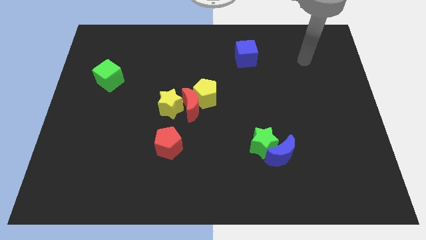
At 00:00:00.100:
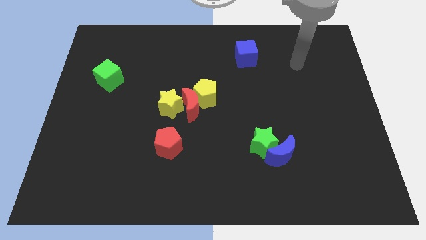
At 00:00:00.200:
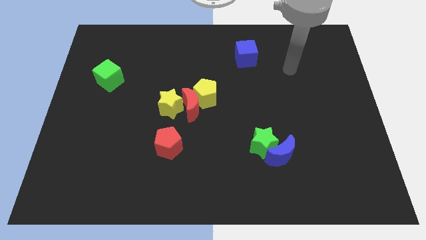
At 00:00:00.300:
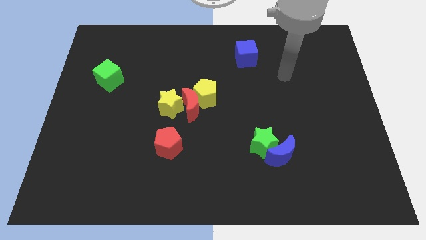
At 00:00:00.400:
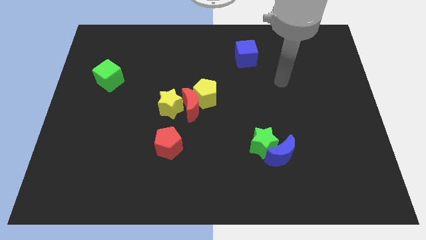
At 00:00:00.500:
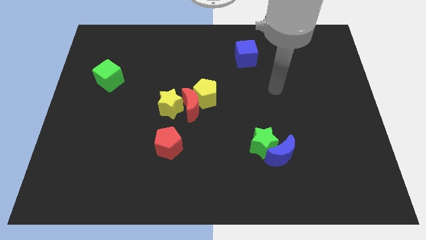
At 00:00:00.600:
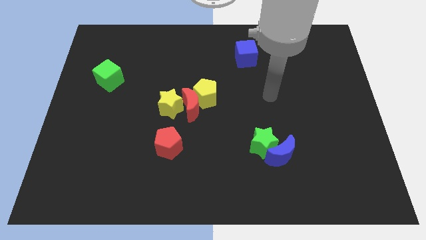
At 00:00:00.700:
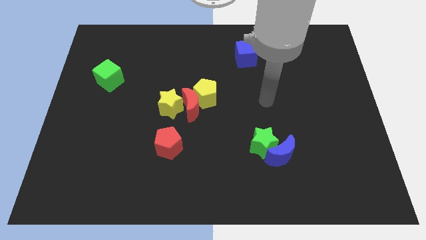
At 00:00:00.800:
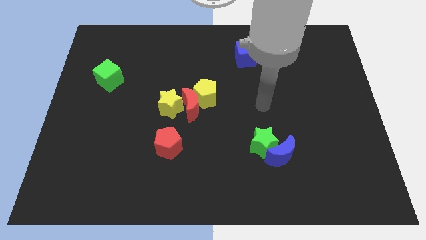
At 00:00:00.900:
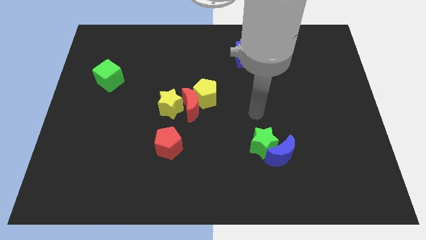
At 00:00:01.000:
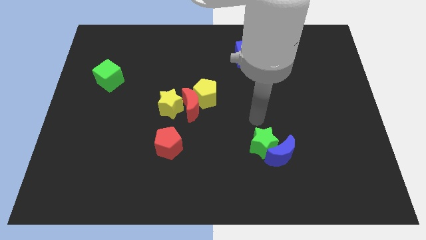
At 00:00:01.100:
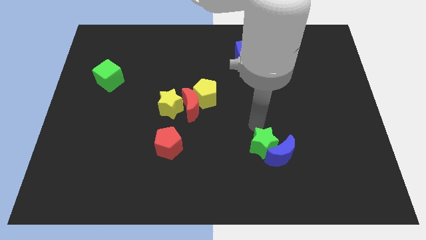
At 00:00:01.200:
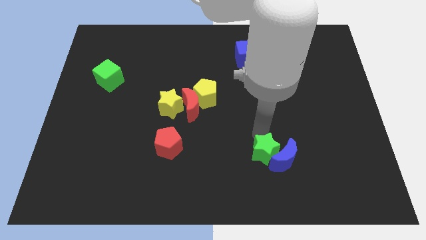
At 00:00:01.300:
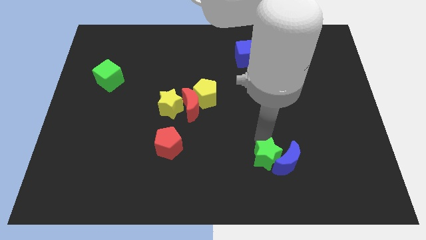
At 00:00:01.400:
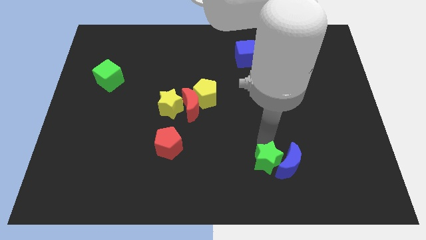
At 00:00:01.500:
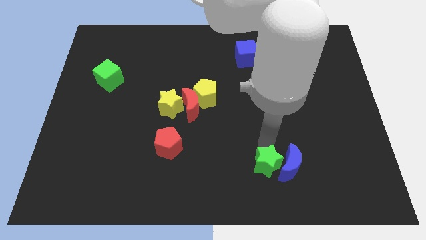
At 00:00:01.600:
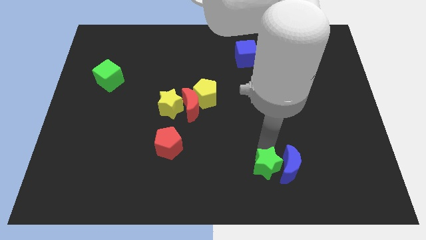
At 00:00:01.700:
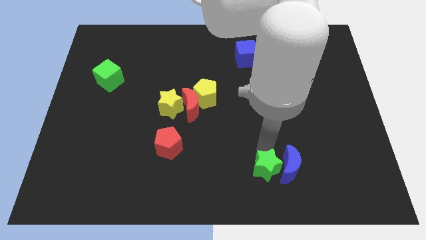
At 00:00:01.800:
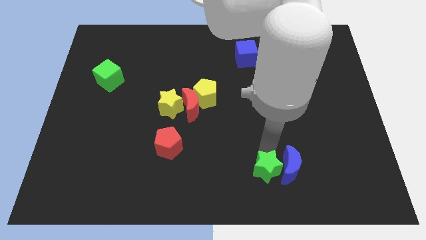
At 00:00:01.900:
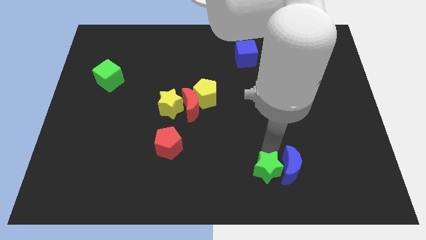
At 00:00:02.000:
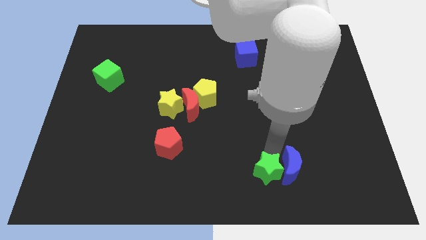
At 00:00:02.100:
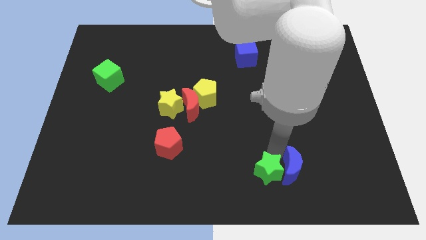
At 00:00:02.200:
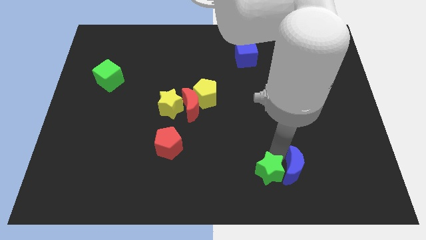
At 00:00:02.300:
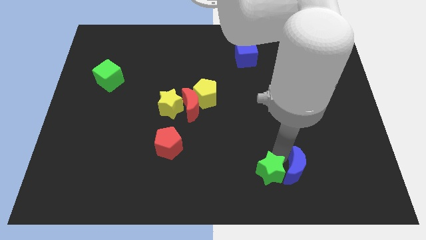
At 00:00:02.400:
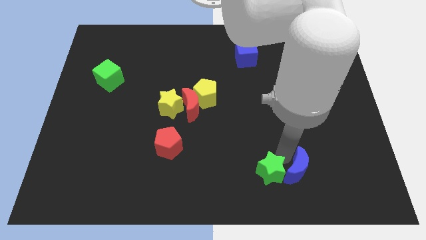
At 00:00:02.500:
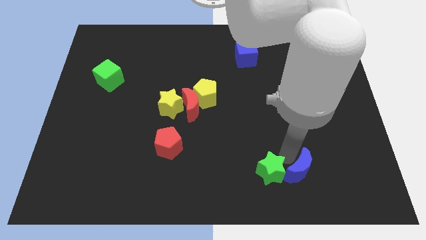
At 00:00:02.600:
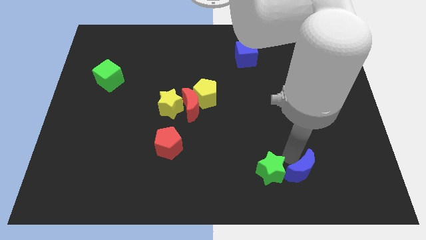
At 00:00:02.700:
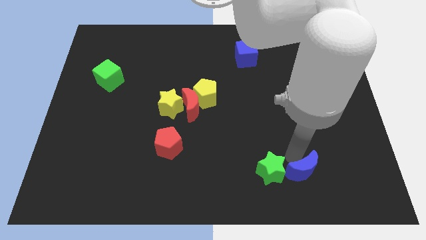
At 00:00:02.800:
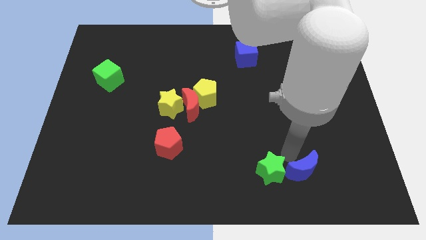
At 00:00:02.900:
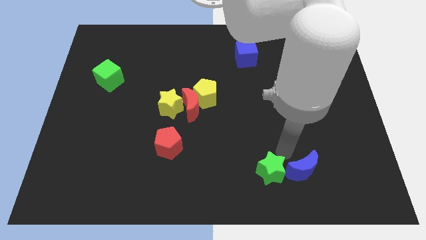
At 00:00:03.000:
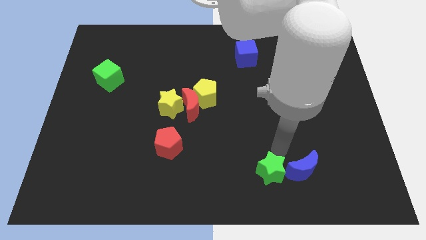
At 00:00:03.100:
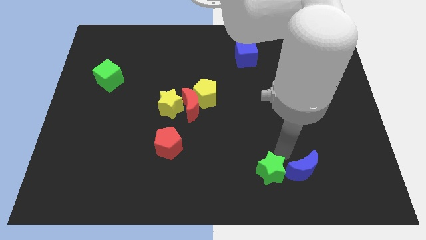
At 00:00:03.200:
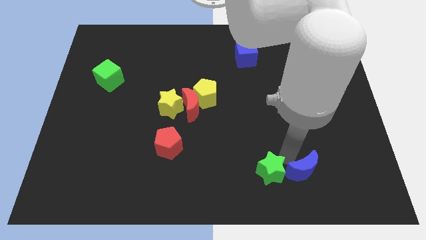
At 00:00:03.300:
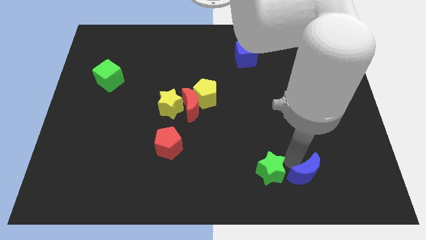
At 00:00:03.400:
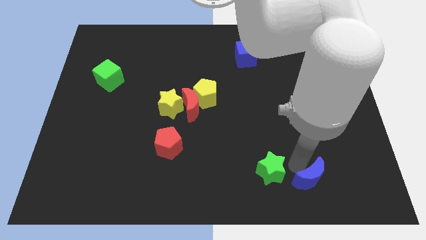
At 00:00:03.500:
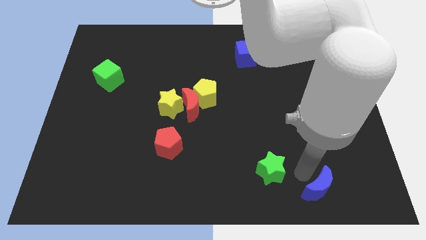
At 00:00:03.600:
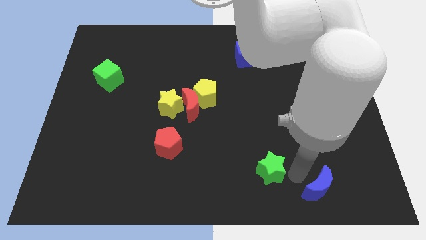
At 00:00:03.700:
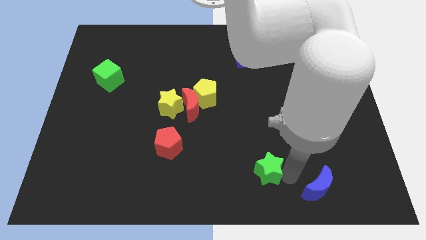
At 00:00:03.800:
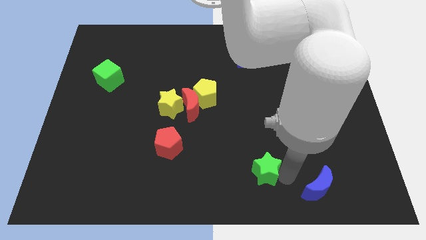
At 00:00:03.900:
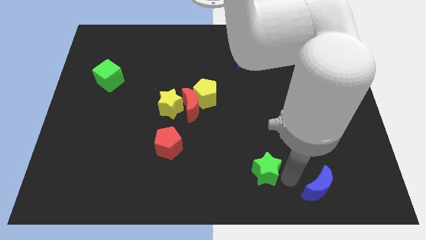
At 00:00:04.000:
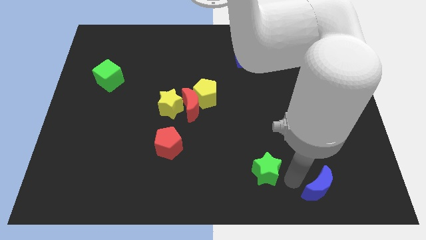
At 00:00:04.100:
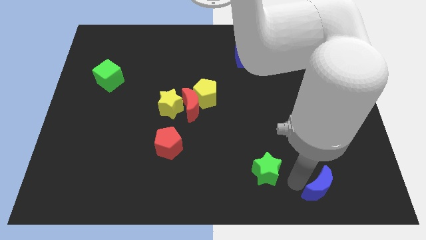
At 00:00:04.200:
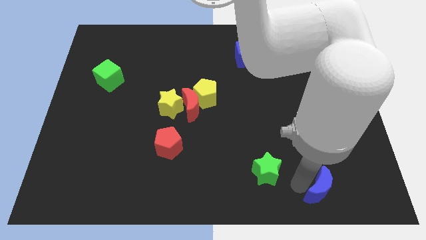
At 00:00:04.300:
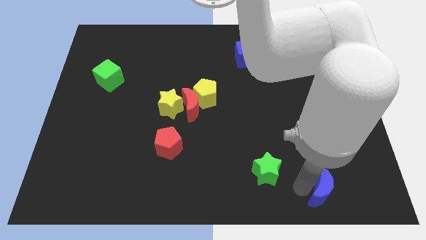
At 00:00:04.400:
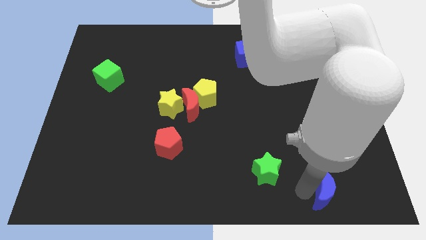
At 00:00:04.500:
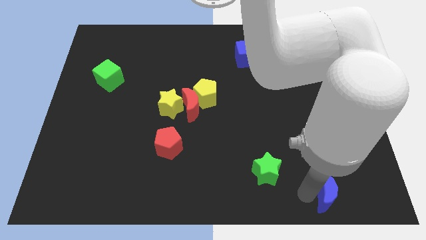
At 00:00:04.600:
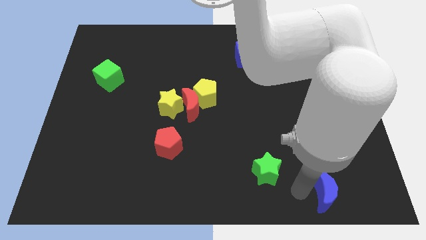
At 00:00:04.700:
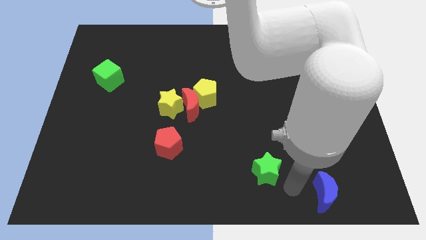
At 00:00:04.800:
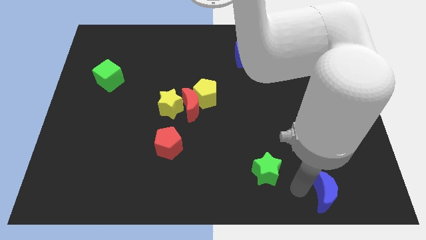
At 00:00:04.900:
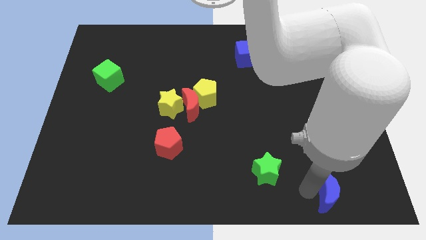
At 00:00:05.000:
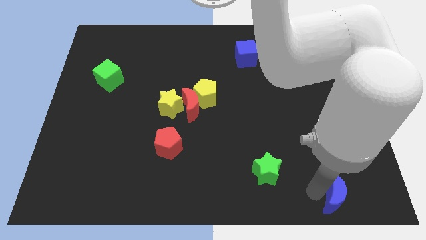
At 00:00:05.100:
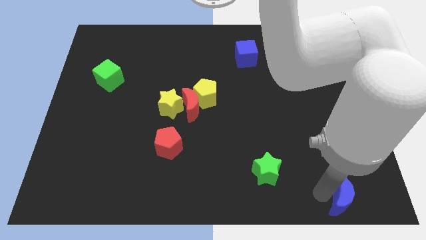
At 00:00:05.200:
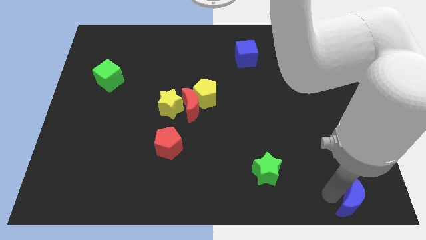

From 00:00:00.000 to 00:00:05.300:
move the blue moon to the bottom right corner

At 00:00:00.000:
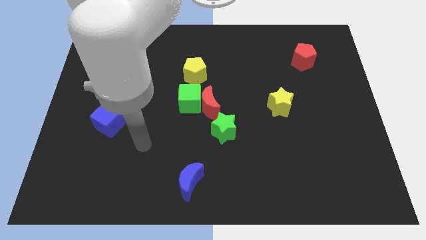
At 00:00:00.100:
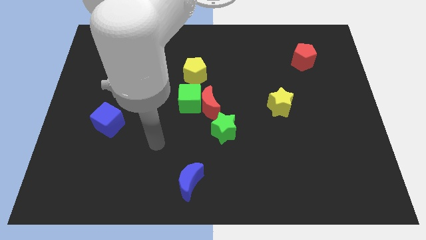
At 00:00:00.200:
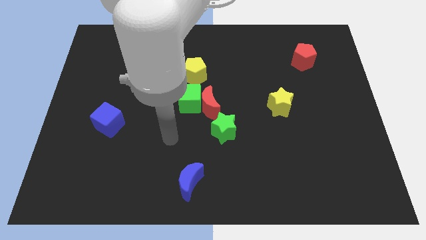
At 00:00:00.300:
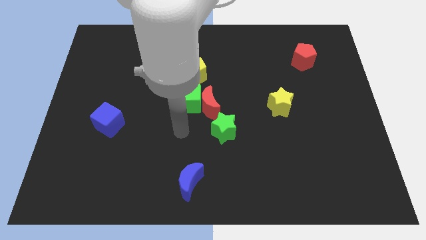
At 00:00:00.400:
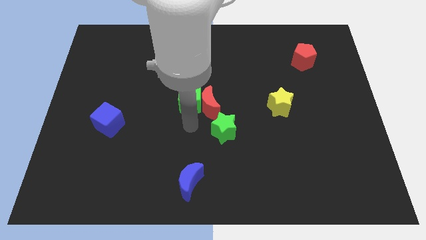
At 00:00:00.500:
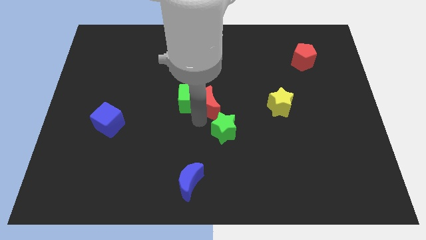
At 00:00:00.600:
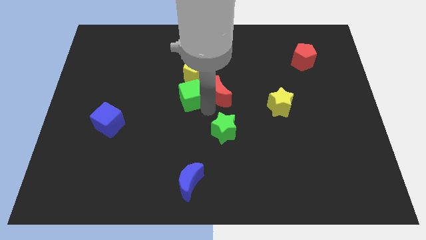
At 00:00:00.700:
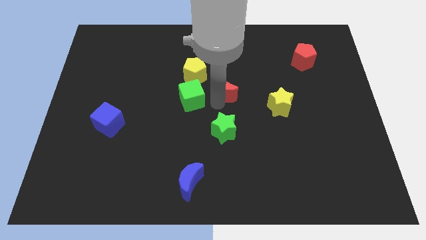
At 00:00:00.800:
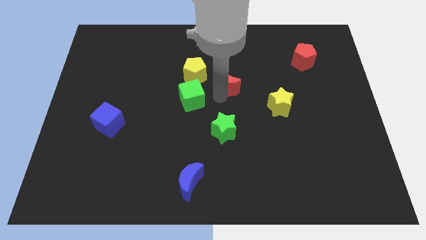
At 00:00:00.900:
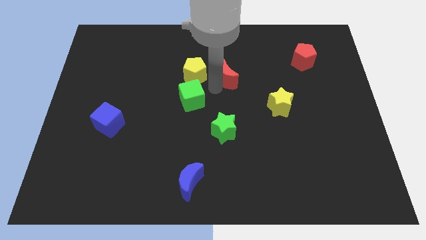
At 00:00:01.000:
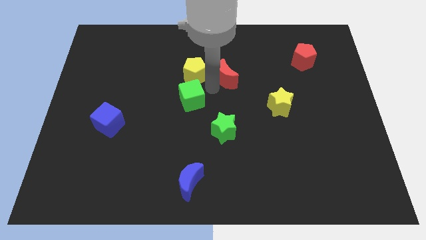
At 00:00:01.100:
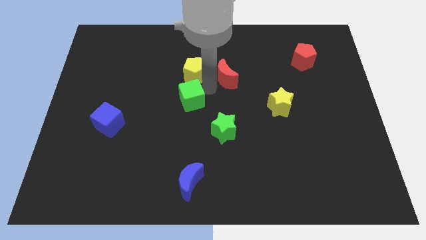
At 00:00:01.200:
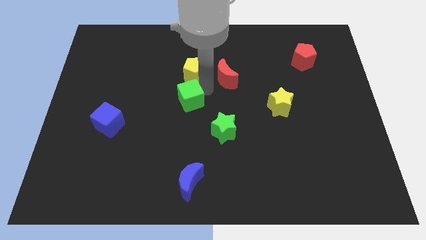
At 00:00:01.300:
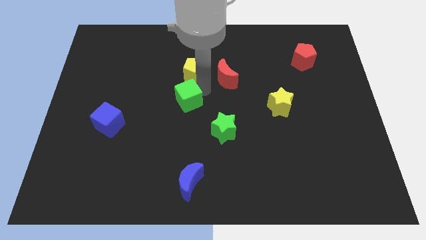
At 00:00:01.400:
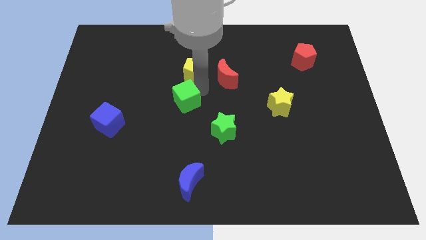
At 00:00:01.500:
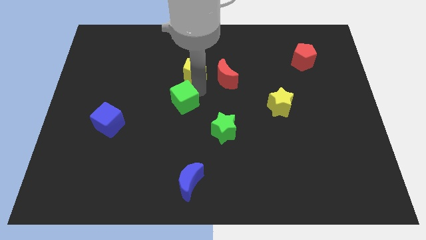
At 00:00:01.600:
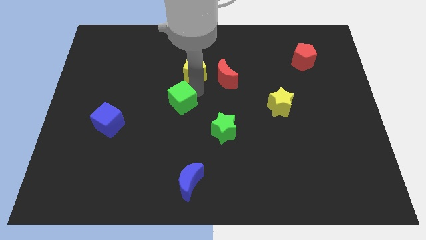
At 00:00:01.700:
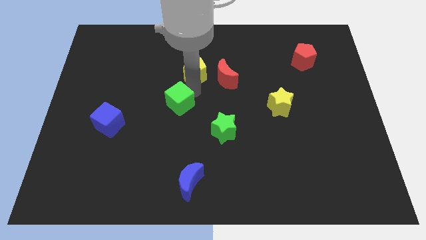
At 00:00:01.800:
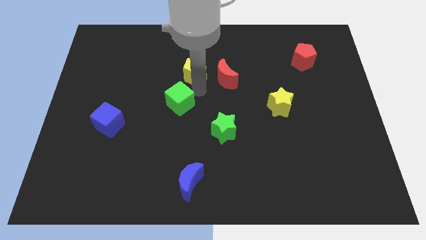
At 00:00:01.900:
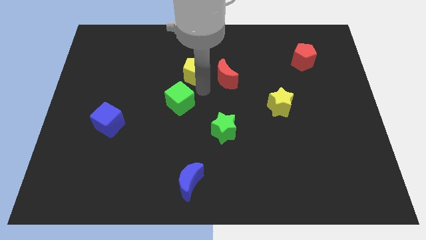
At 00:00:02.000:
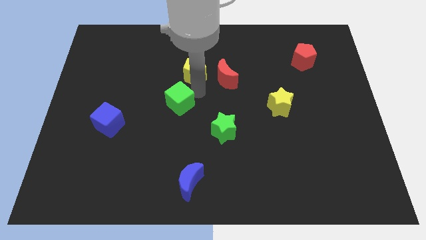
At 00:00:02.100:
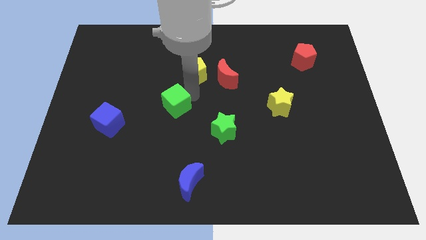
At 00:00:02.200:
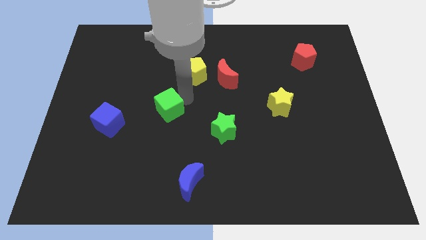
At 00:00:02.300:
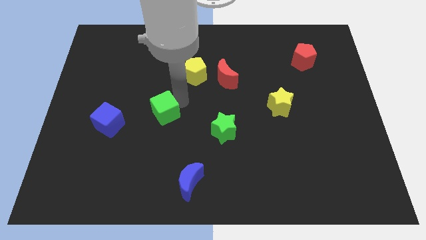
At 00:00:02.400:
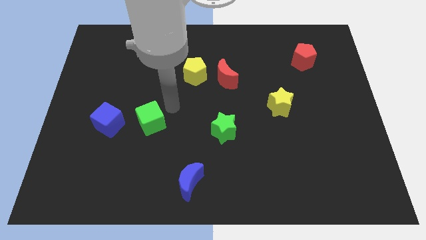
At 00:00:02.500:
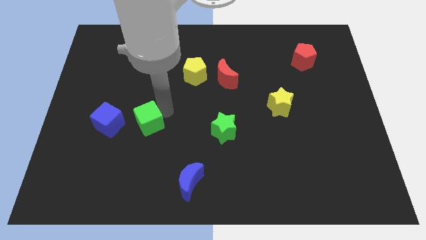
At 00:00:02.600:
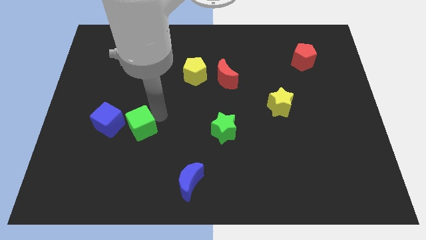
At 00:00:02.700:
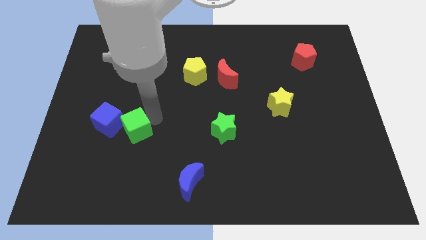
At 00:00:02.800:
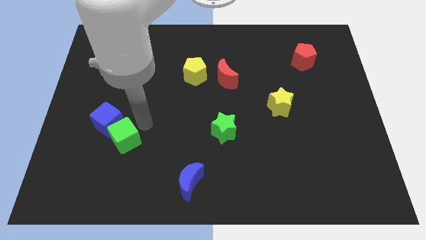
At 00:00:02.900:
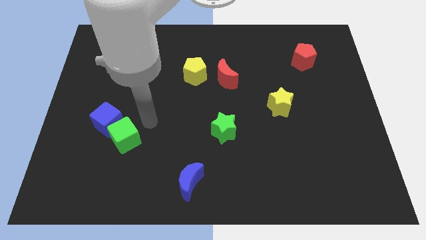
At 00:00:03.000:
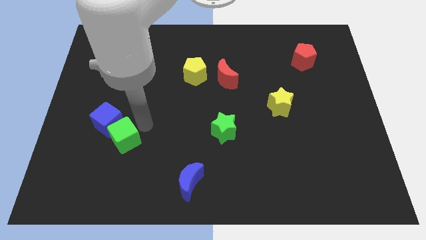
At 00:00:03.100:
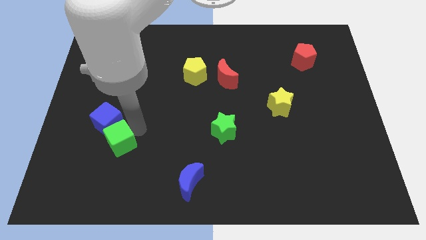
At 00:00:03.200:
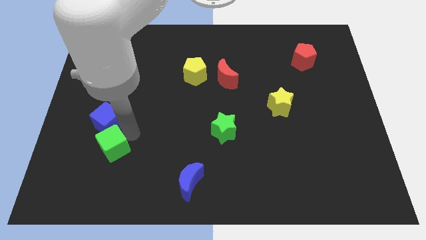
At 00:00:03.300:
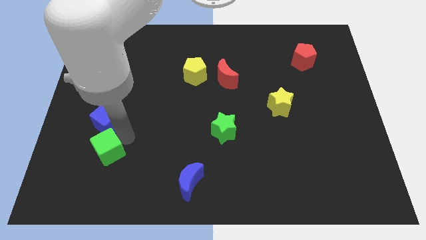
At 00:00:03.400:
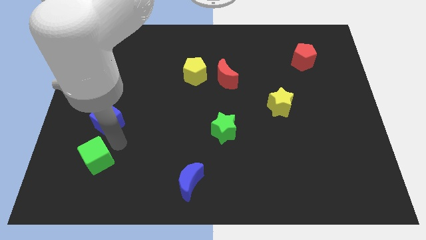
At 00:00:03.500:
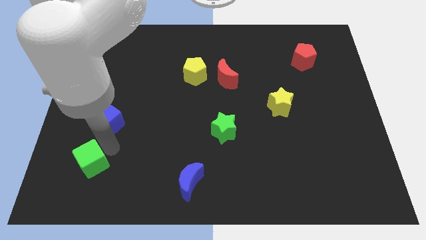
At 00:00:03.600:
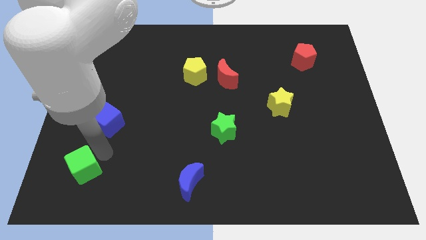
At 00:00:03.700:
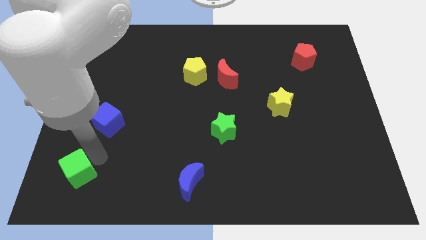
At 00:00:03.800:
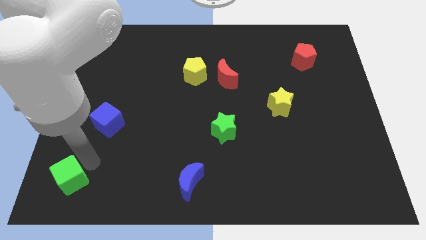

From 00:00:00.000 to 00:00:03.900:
put the green cube to the bottom left
